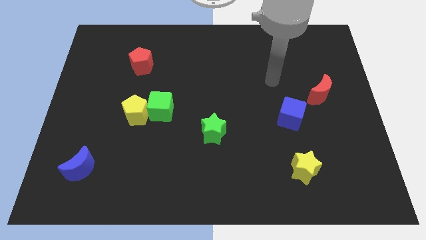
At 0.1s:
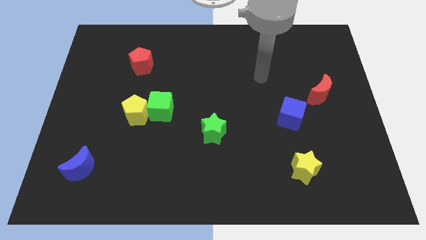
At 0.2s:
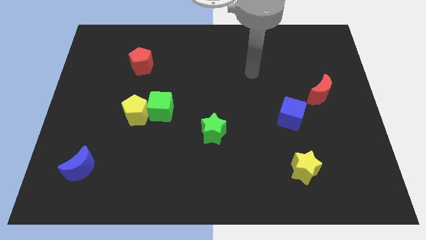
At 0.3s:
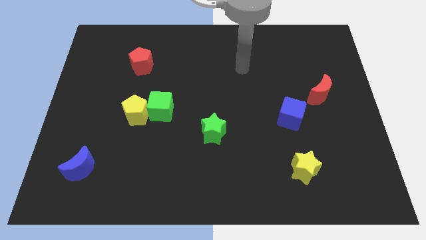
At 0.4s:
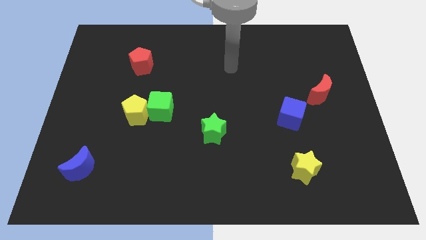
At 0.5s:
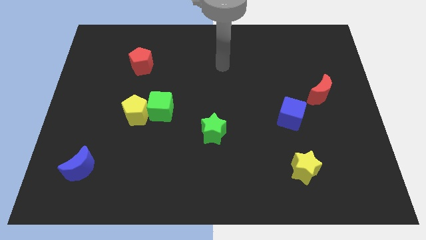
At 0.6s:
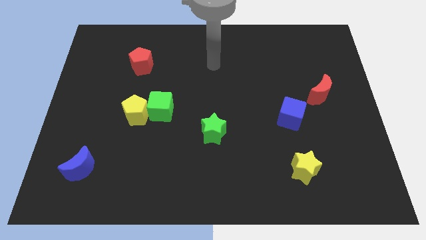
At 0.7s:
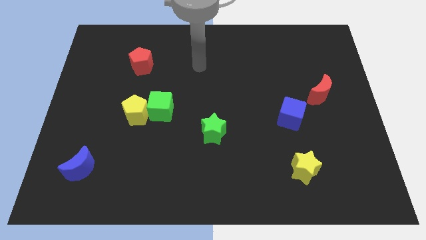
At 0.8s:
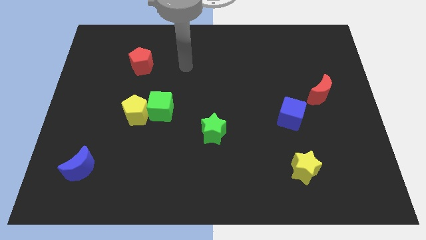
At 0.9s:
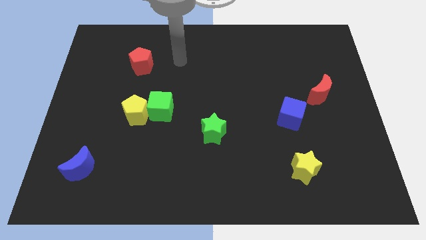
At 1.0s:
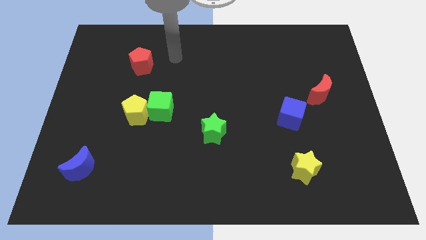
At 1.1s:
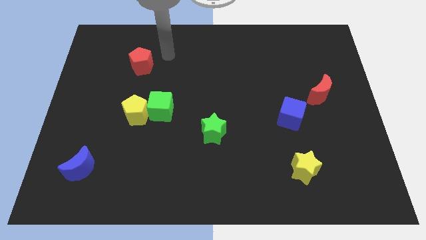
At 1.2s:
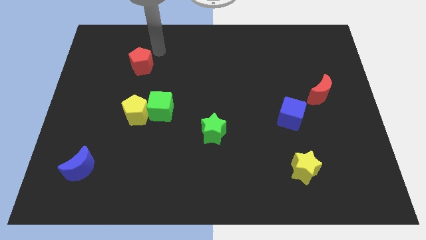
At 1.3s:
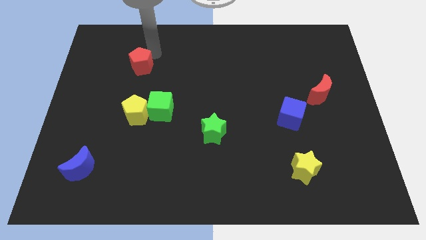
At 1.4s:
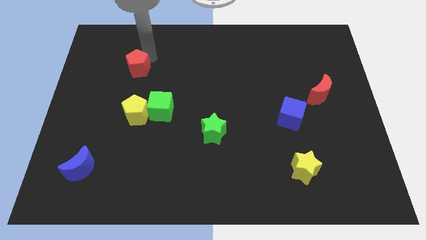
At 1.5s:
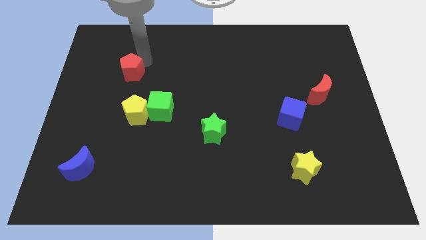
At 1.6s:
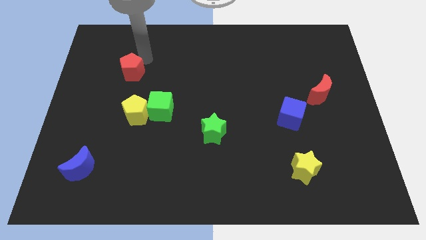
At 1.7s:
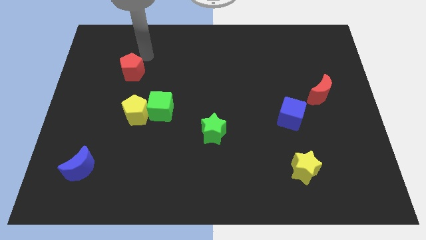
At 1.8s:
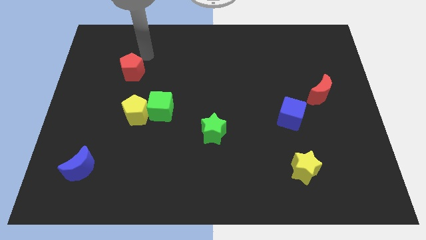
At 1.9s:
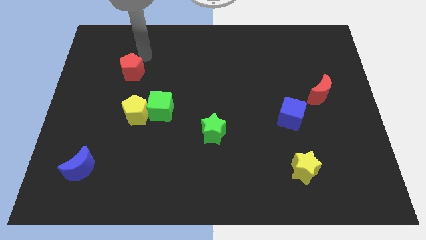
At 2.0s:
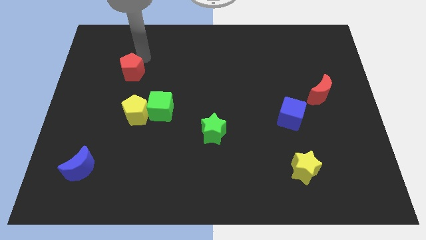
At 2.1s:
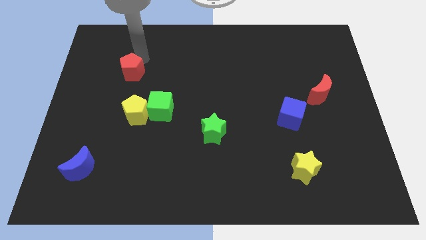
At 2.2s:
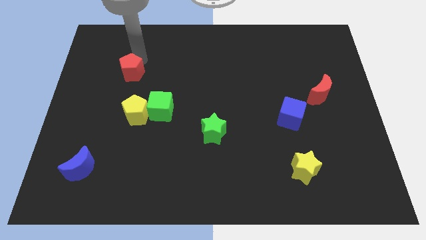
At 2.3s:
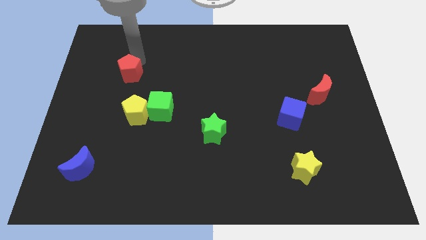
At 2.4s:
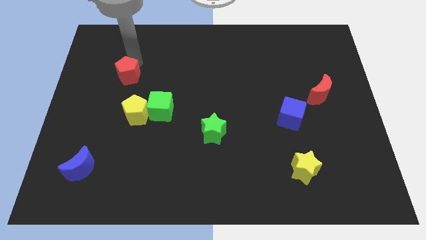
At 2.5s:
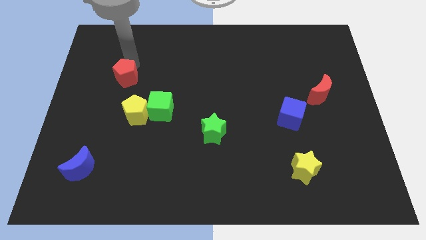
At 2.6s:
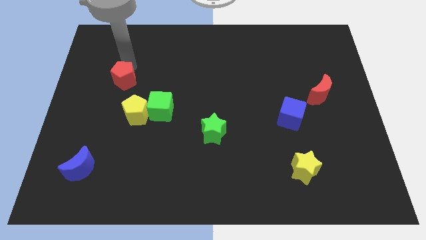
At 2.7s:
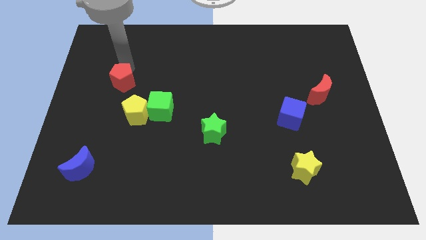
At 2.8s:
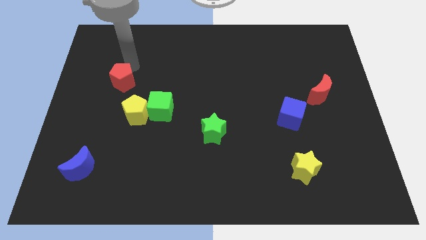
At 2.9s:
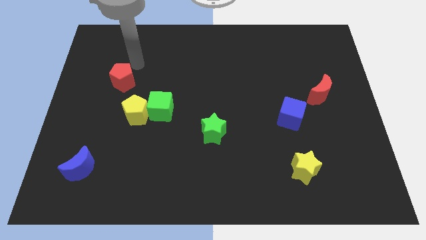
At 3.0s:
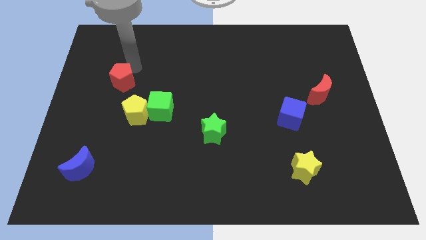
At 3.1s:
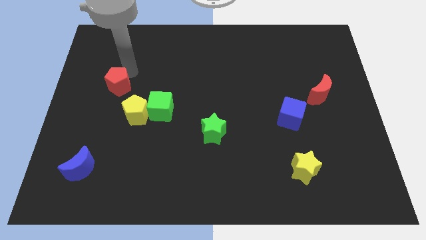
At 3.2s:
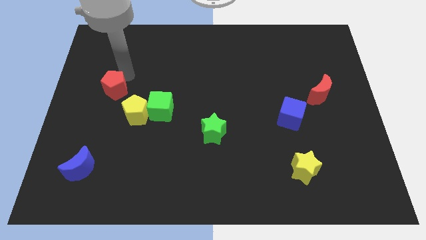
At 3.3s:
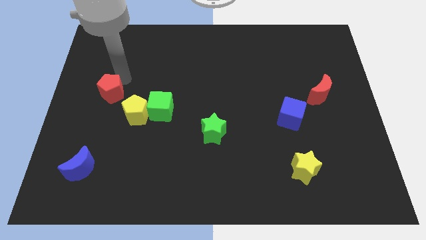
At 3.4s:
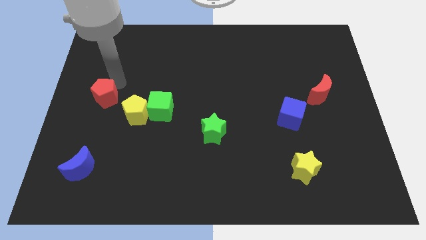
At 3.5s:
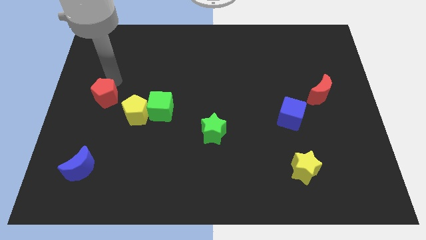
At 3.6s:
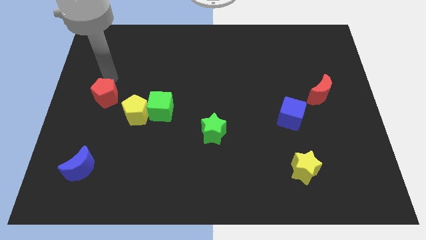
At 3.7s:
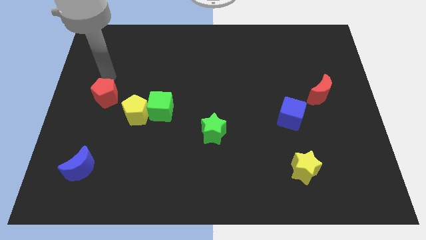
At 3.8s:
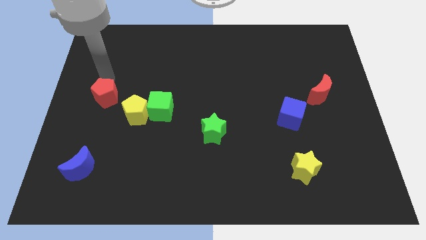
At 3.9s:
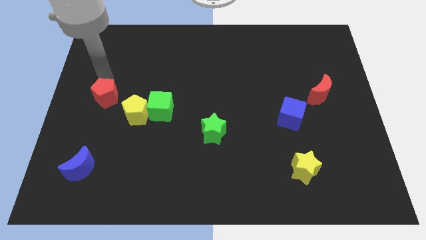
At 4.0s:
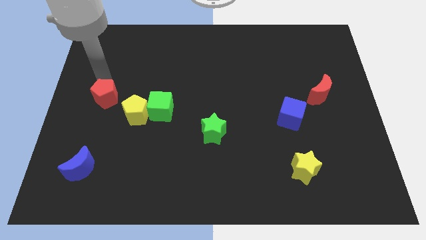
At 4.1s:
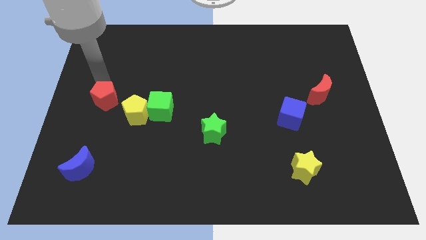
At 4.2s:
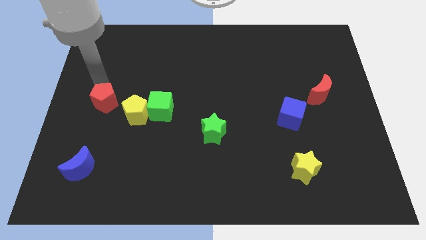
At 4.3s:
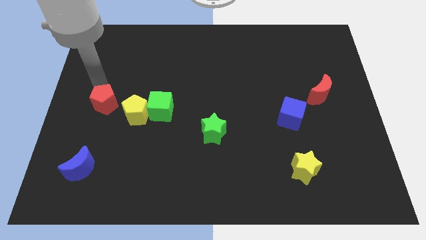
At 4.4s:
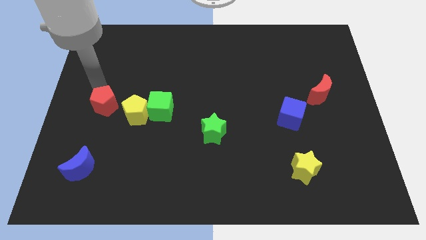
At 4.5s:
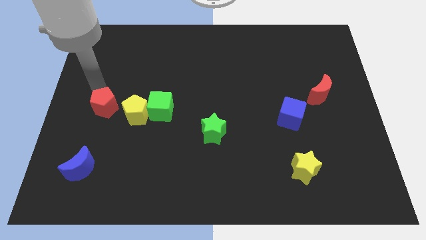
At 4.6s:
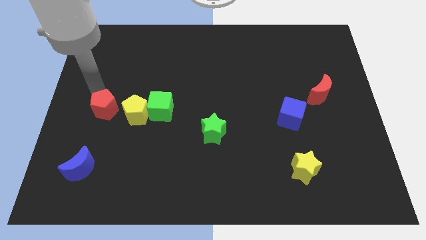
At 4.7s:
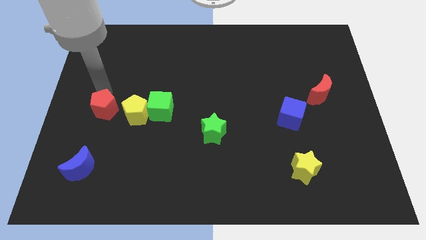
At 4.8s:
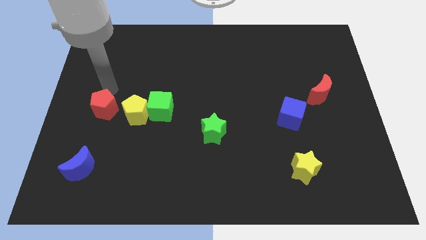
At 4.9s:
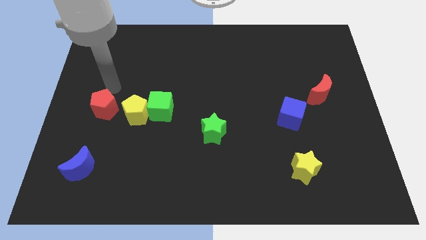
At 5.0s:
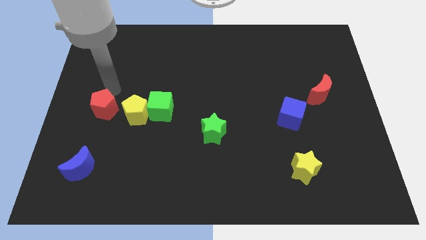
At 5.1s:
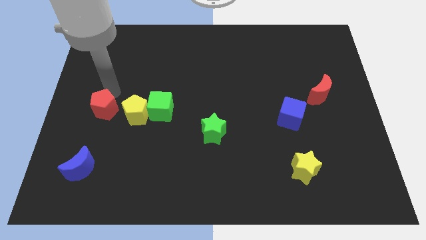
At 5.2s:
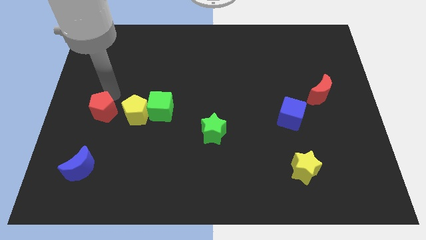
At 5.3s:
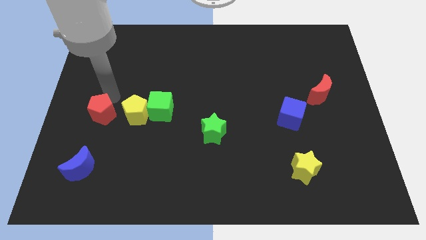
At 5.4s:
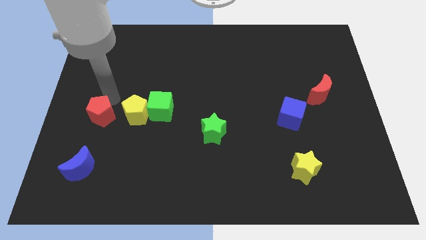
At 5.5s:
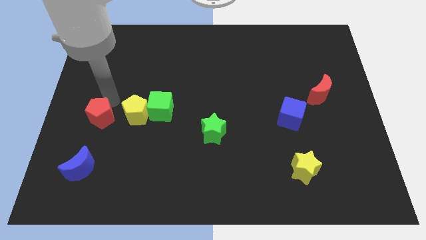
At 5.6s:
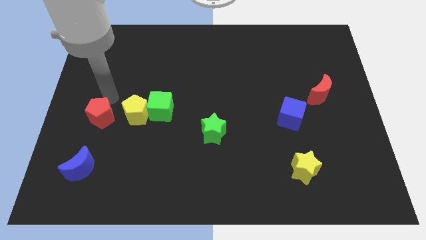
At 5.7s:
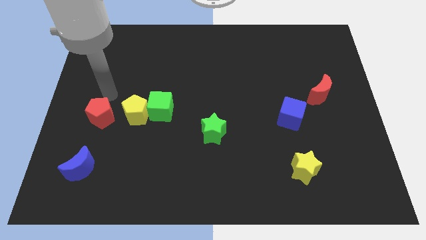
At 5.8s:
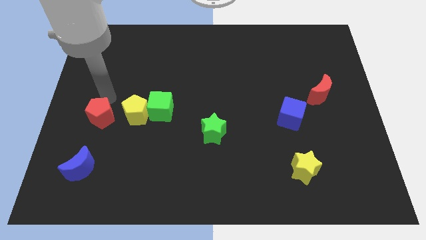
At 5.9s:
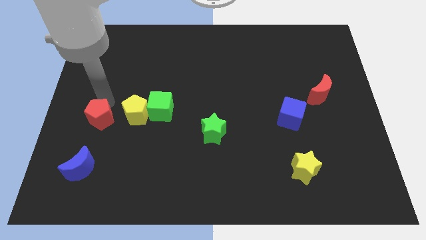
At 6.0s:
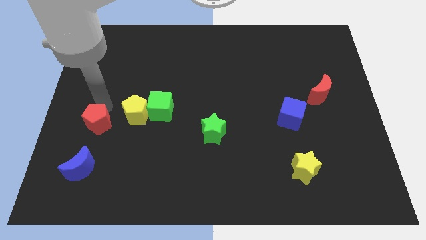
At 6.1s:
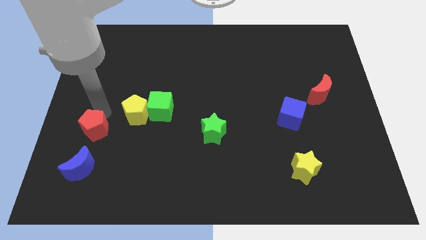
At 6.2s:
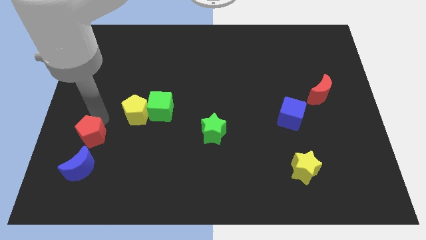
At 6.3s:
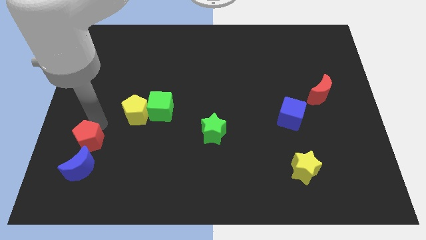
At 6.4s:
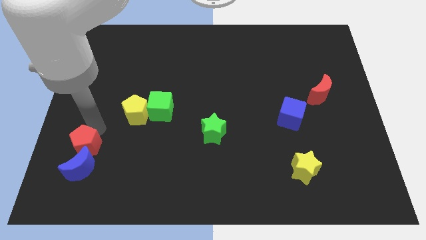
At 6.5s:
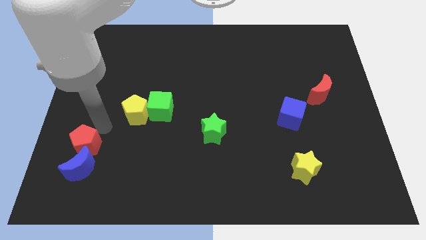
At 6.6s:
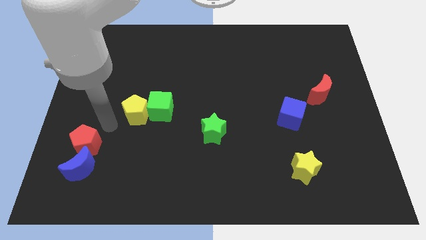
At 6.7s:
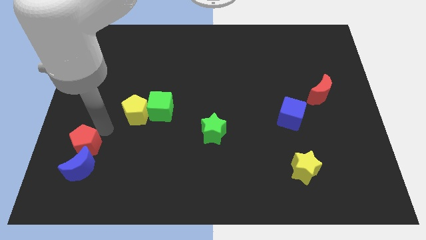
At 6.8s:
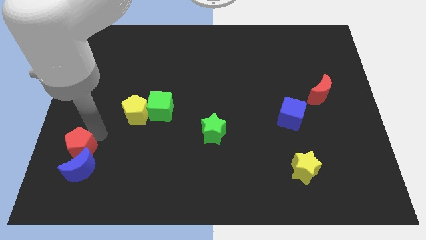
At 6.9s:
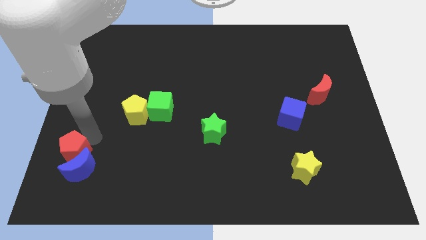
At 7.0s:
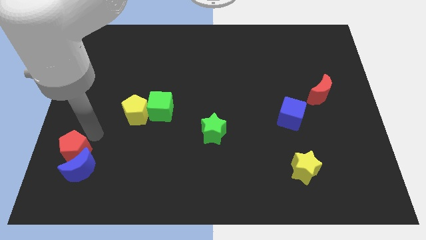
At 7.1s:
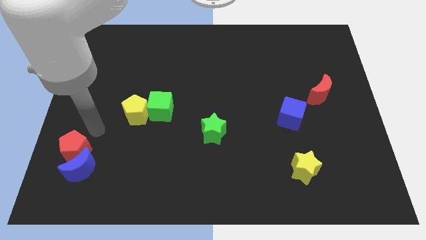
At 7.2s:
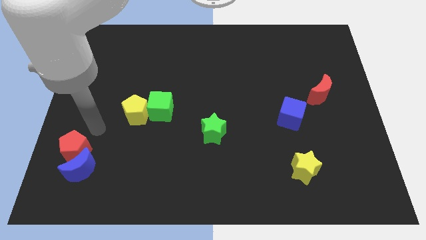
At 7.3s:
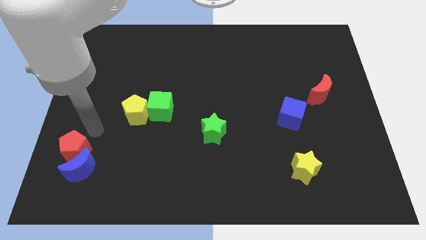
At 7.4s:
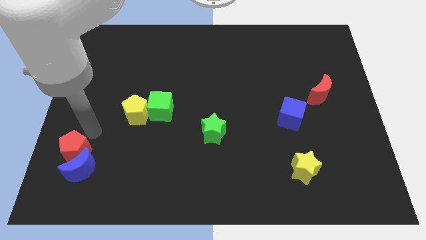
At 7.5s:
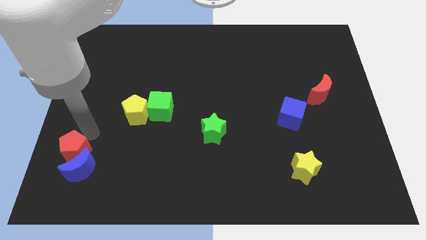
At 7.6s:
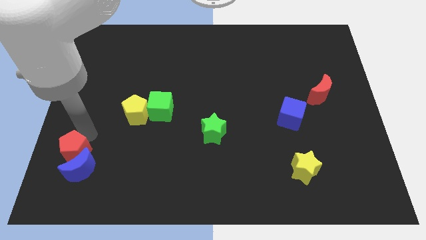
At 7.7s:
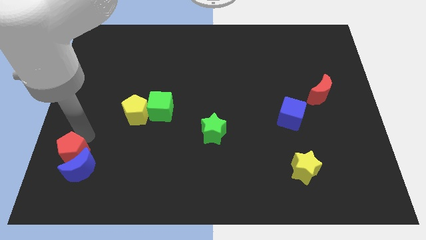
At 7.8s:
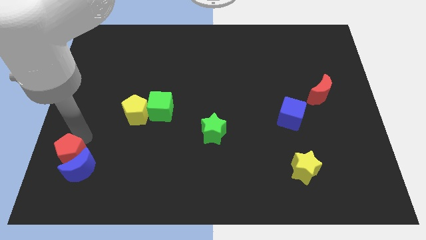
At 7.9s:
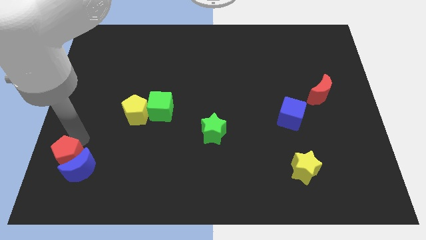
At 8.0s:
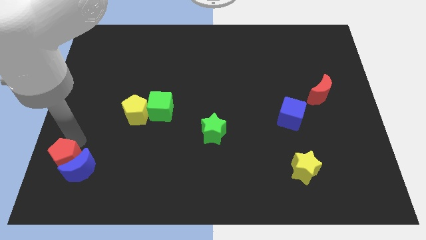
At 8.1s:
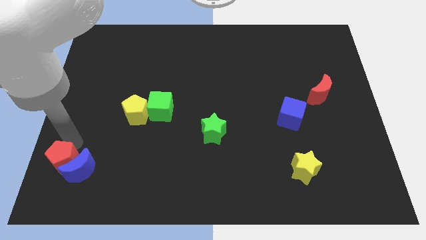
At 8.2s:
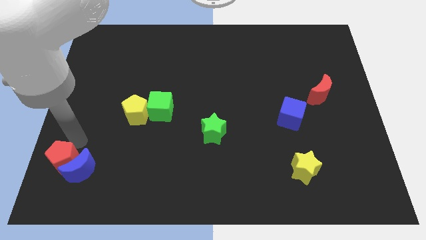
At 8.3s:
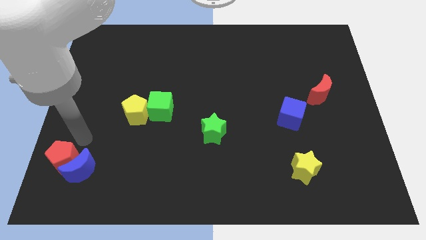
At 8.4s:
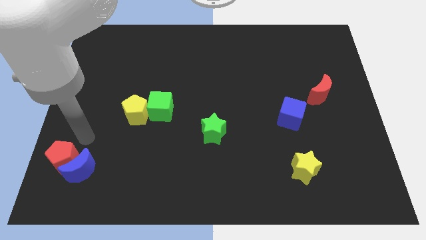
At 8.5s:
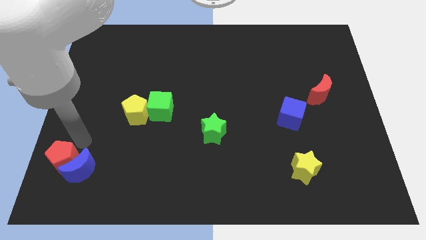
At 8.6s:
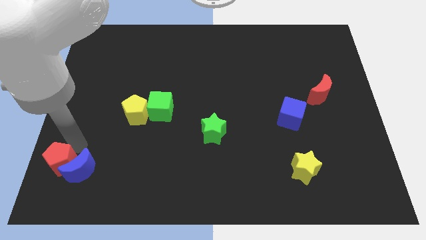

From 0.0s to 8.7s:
push the red pentagon to the lower left corner
